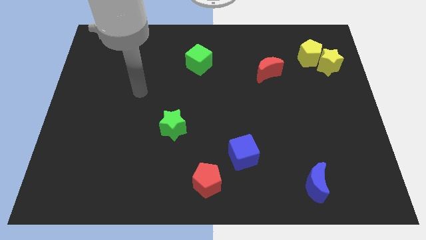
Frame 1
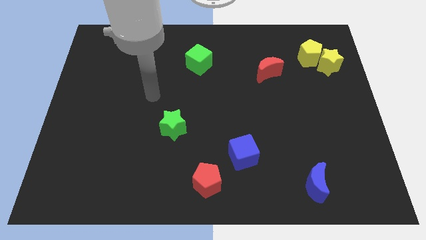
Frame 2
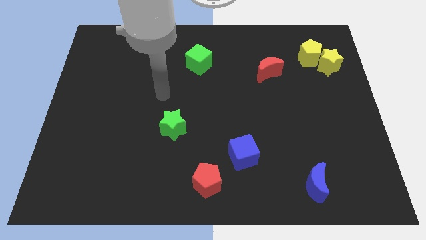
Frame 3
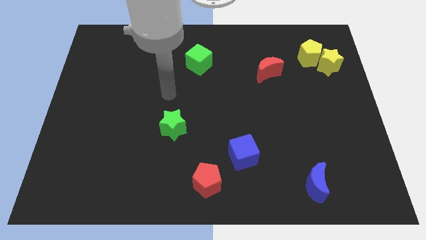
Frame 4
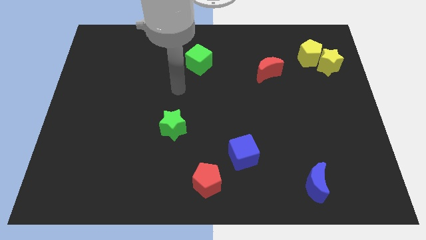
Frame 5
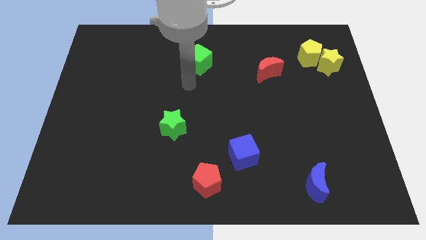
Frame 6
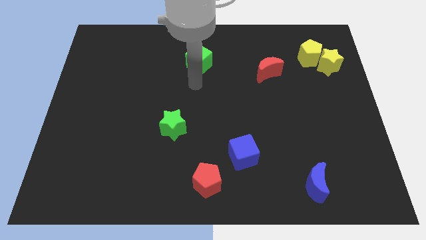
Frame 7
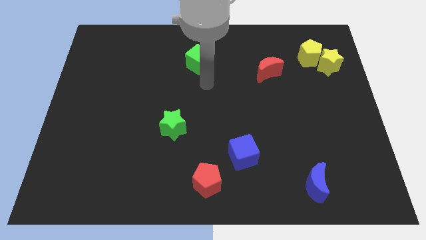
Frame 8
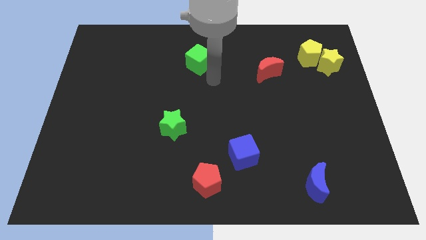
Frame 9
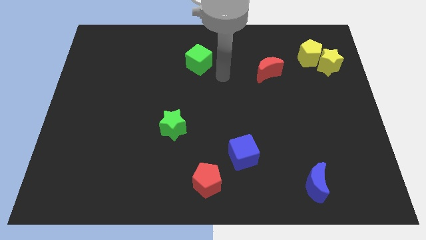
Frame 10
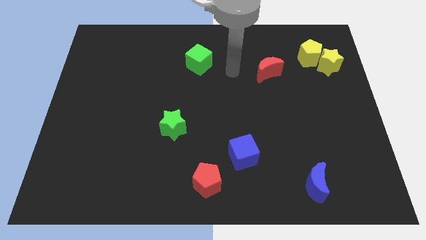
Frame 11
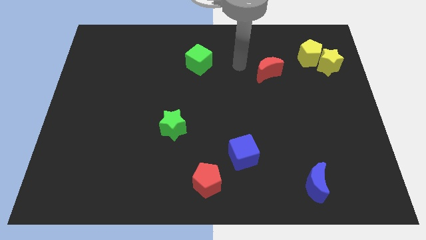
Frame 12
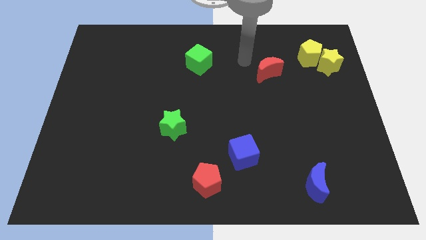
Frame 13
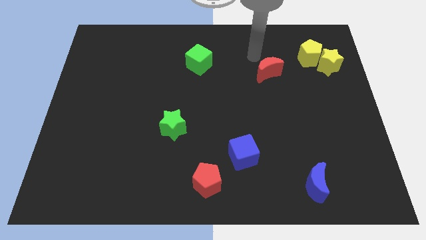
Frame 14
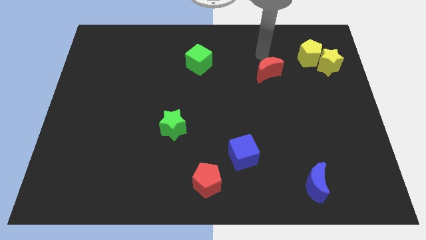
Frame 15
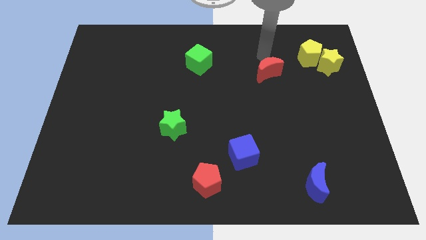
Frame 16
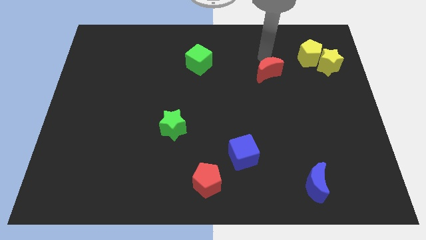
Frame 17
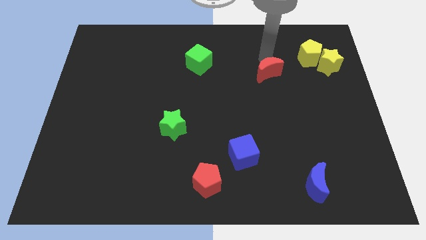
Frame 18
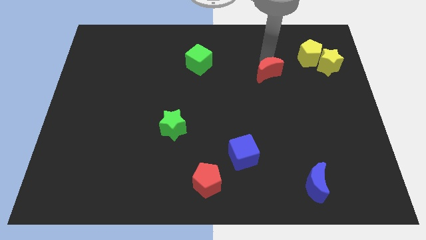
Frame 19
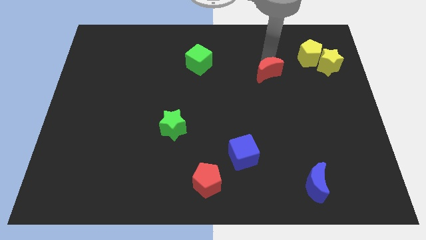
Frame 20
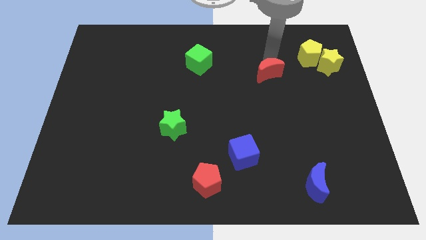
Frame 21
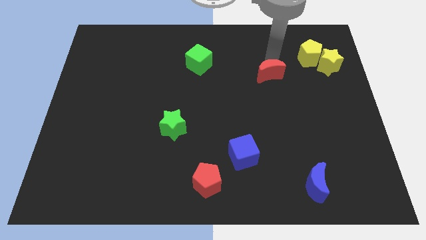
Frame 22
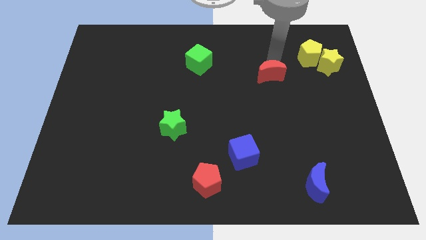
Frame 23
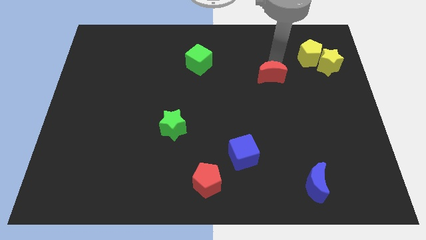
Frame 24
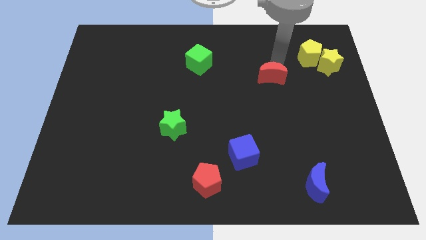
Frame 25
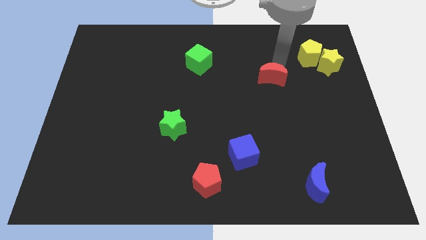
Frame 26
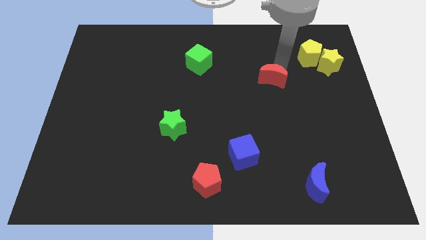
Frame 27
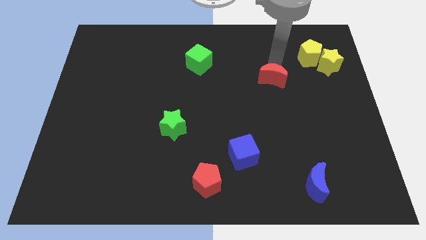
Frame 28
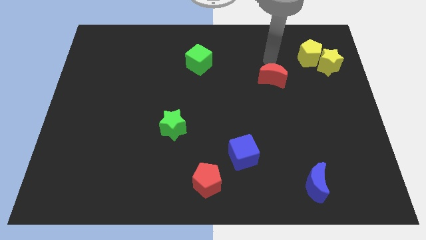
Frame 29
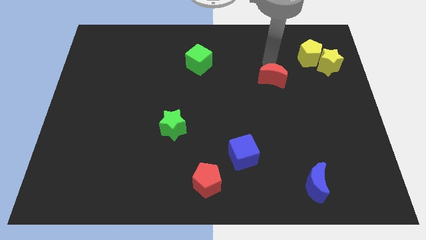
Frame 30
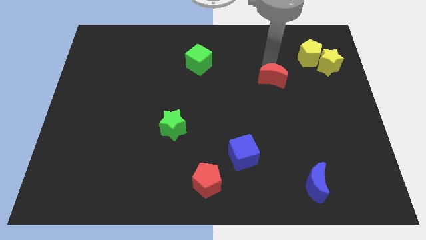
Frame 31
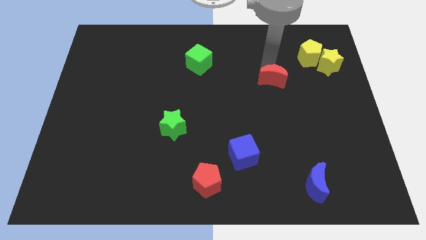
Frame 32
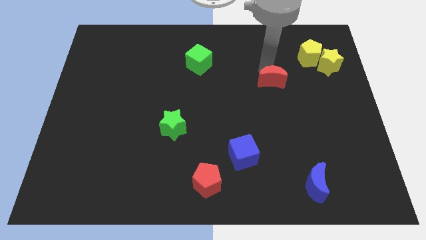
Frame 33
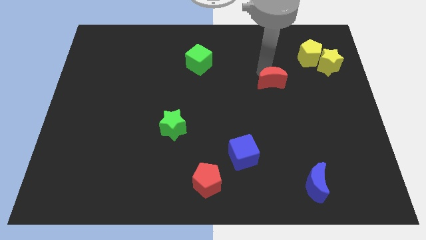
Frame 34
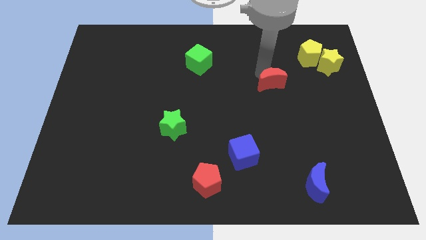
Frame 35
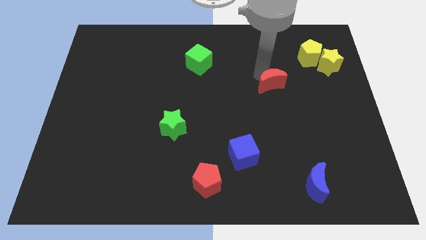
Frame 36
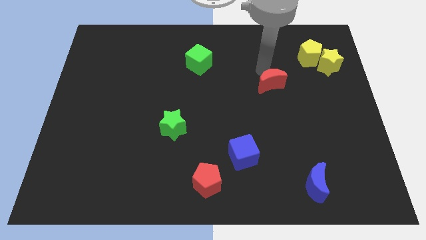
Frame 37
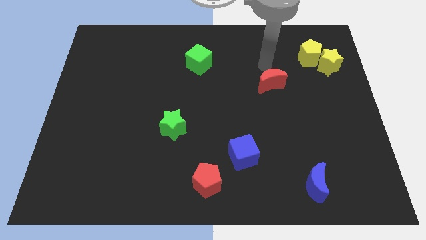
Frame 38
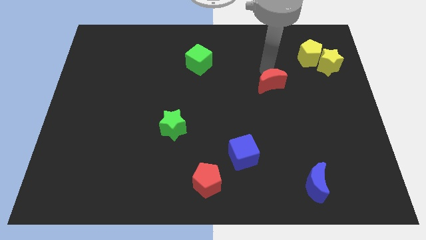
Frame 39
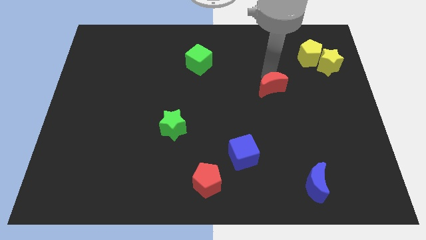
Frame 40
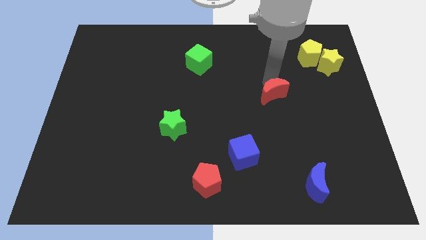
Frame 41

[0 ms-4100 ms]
slide the red moon down a little

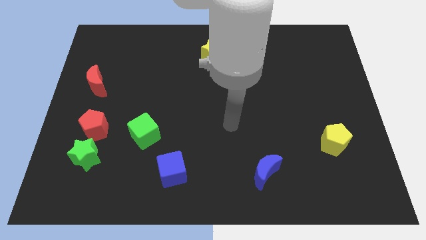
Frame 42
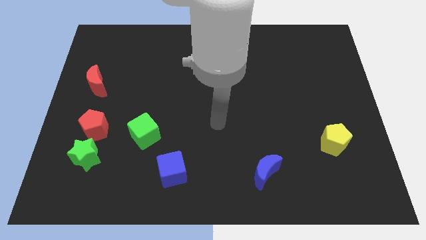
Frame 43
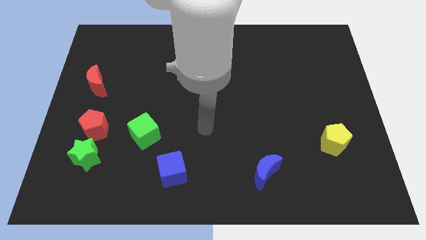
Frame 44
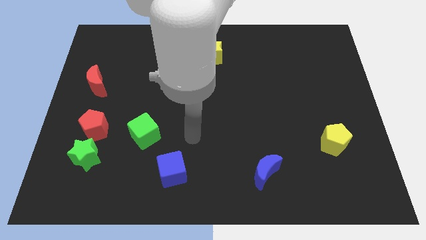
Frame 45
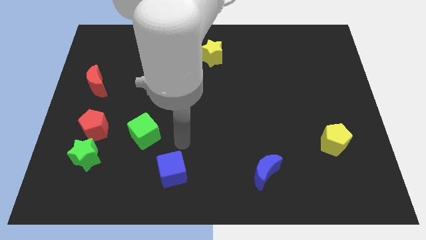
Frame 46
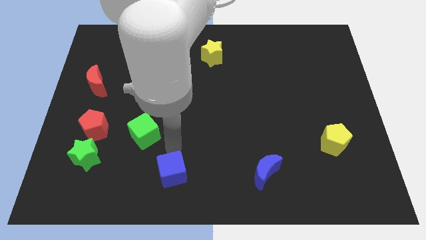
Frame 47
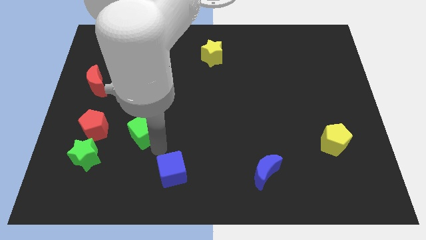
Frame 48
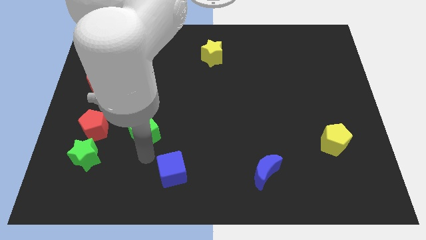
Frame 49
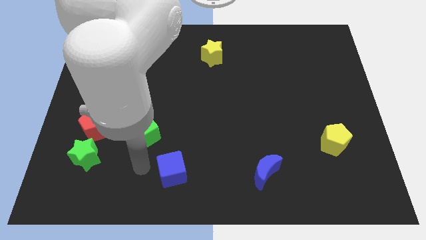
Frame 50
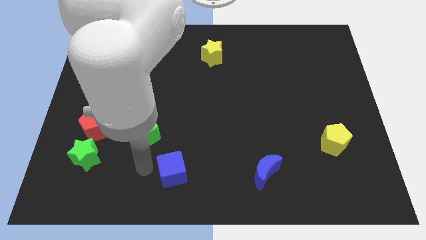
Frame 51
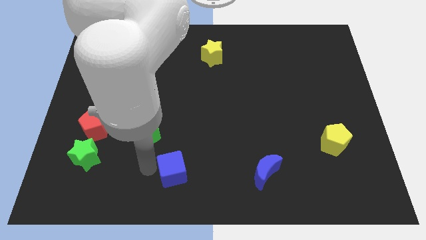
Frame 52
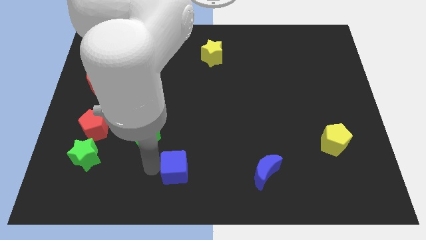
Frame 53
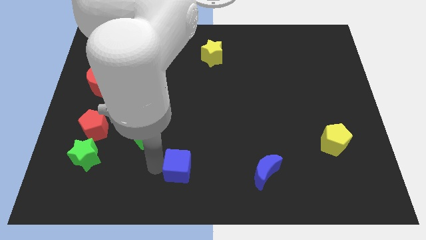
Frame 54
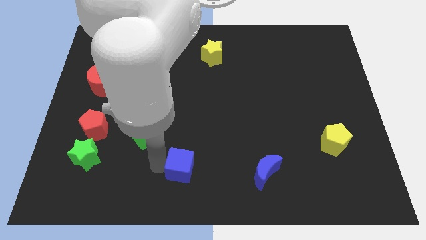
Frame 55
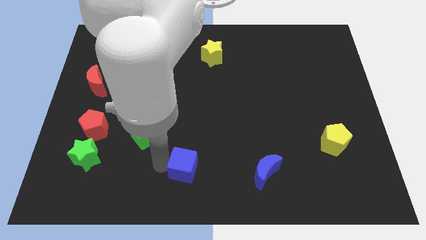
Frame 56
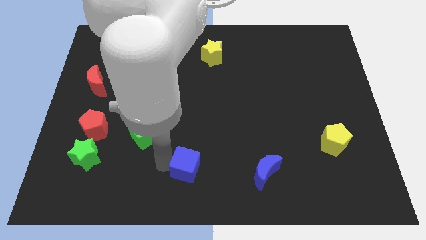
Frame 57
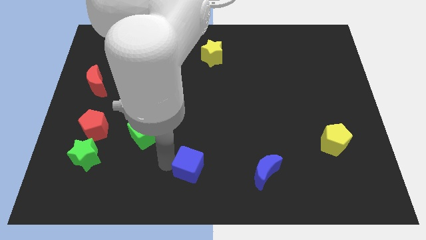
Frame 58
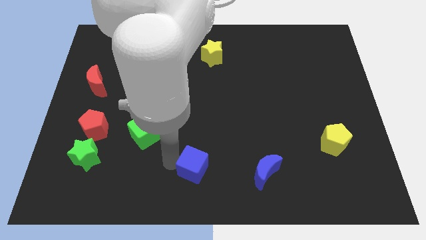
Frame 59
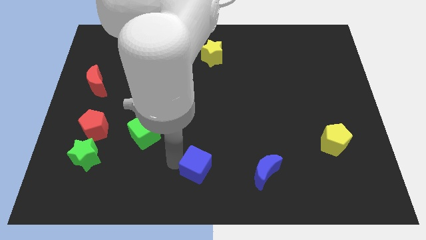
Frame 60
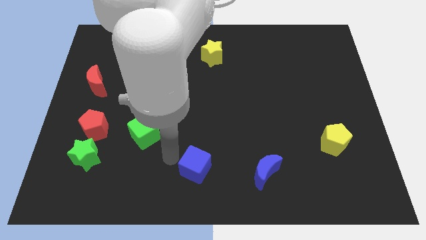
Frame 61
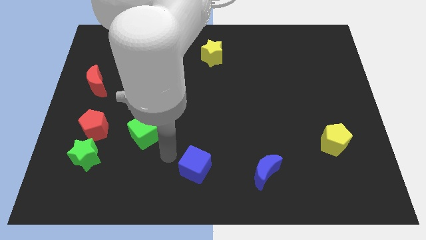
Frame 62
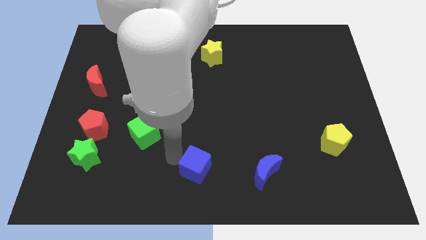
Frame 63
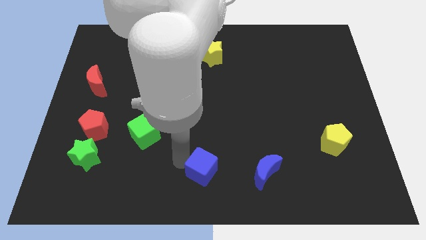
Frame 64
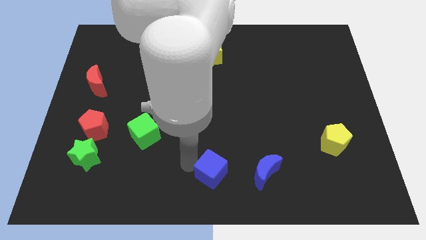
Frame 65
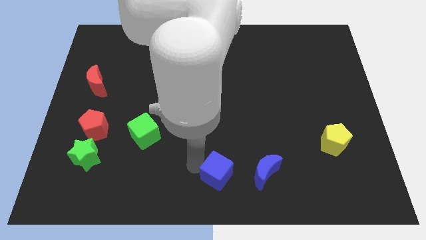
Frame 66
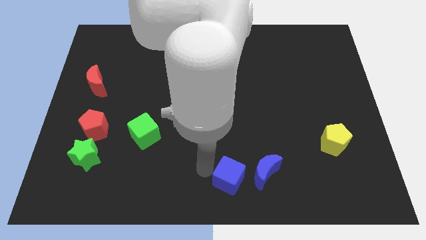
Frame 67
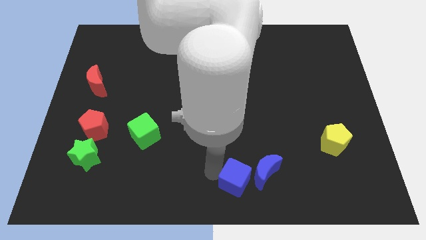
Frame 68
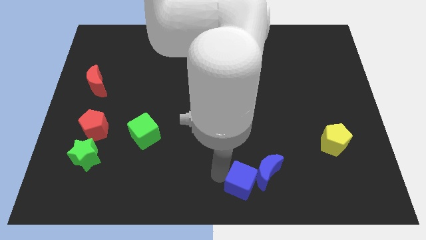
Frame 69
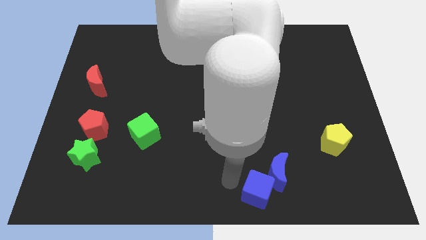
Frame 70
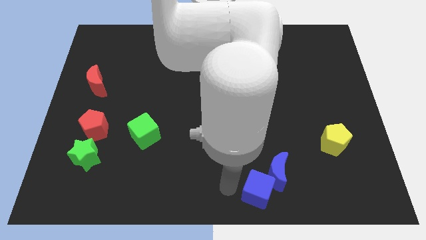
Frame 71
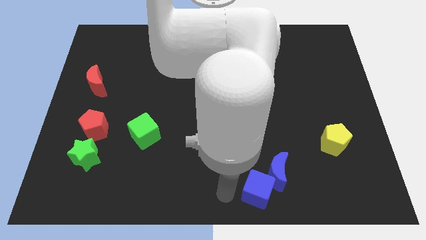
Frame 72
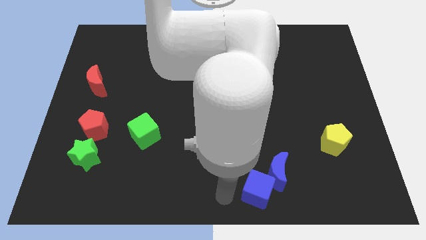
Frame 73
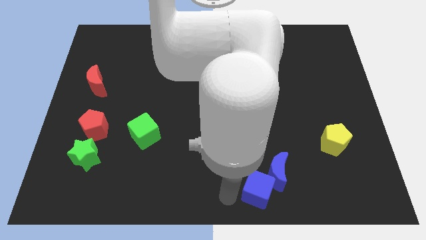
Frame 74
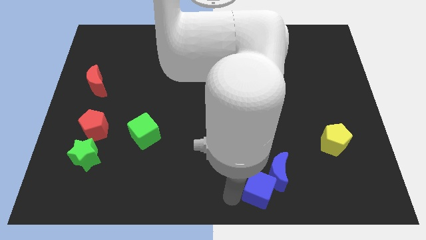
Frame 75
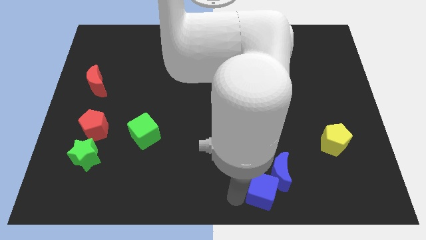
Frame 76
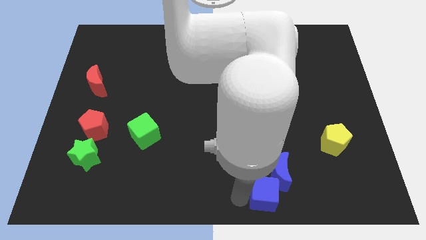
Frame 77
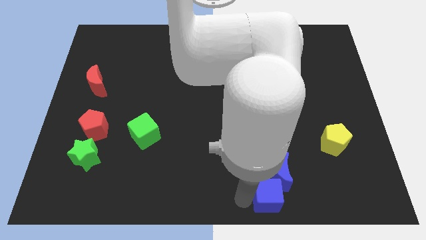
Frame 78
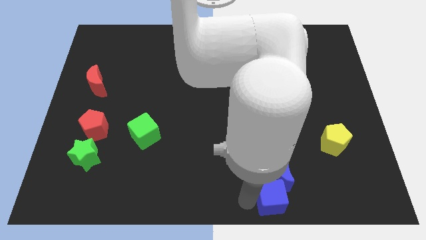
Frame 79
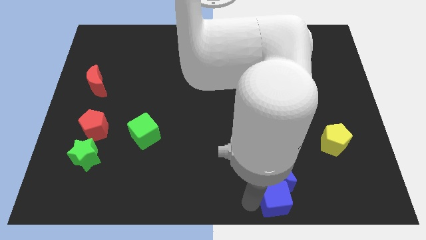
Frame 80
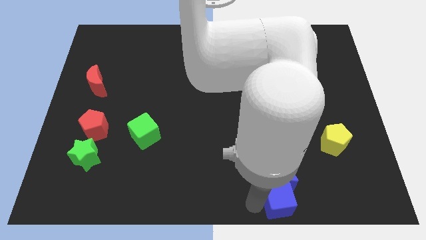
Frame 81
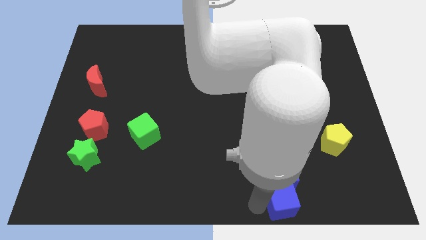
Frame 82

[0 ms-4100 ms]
slide the blue cube right

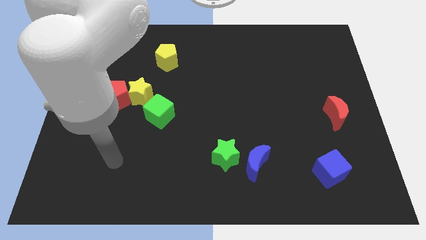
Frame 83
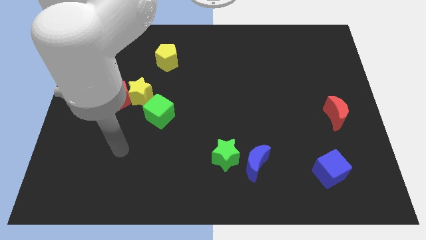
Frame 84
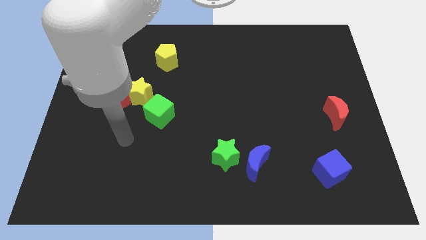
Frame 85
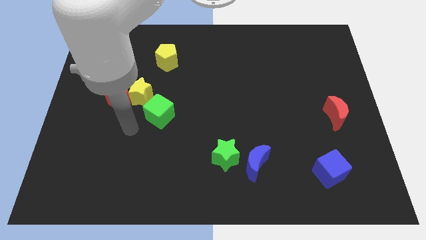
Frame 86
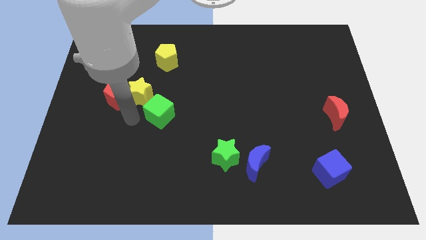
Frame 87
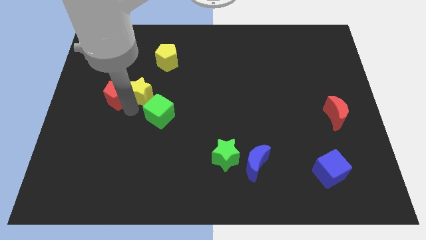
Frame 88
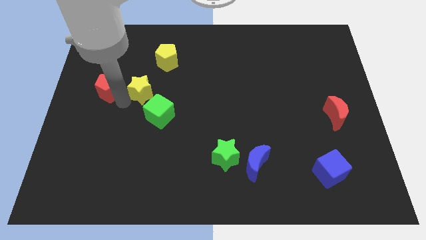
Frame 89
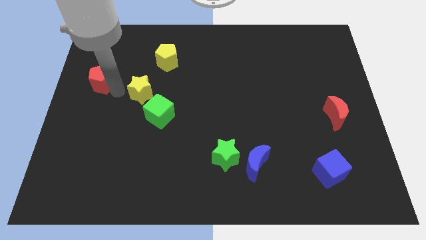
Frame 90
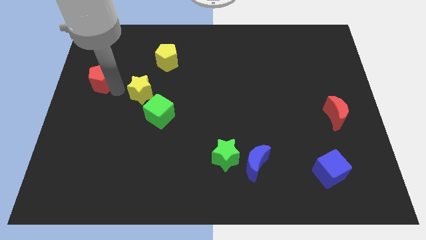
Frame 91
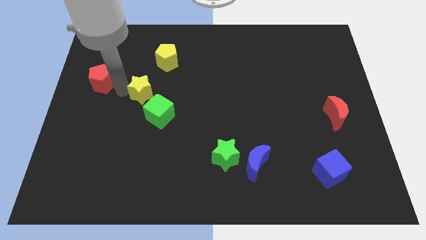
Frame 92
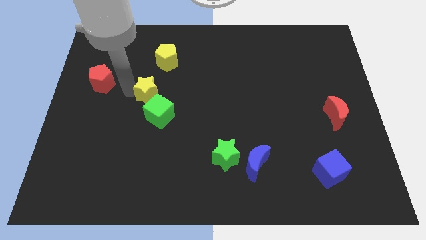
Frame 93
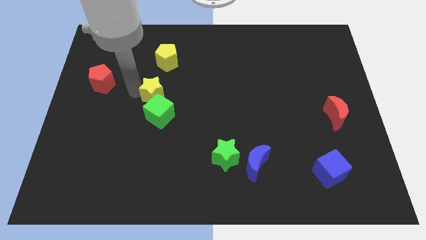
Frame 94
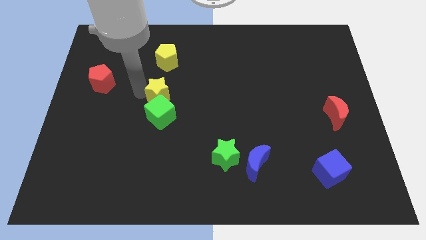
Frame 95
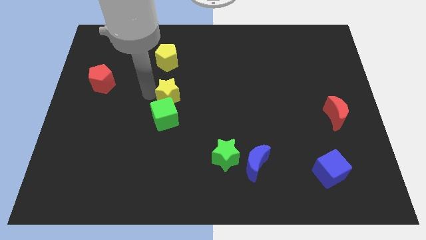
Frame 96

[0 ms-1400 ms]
slightly move the yellow star right
